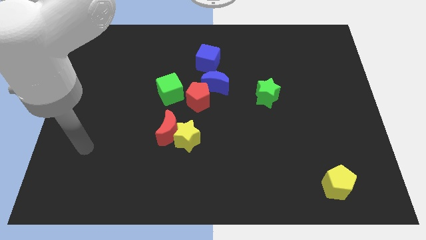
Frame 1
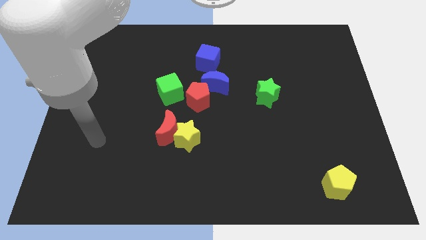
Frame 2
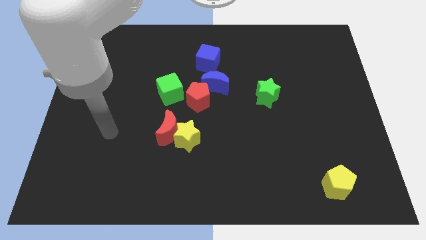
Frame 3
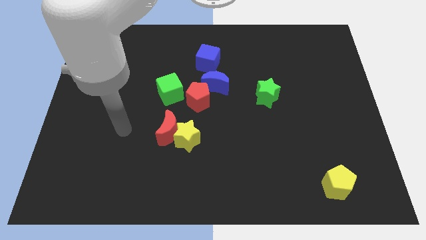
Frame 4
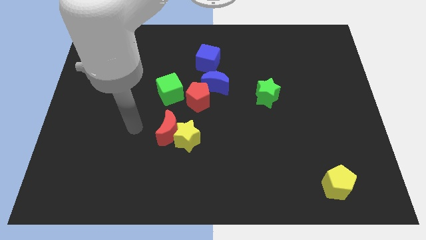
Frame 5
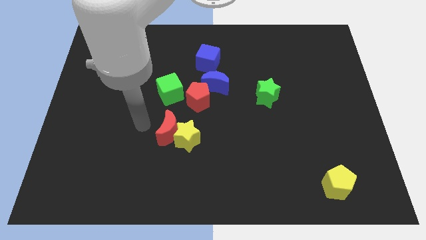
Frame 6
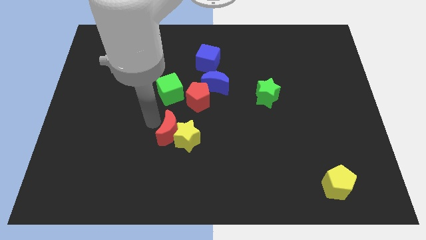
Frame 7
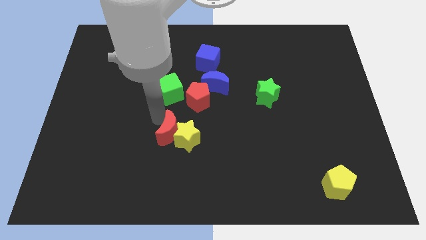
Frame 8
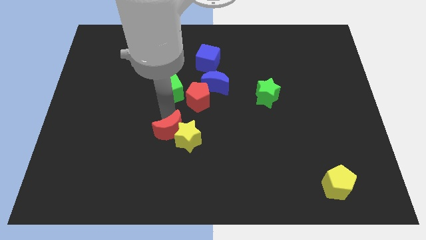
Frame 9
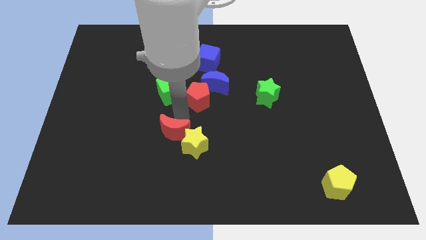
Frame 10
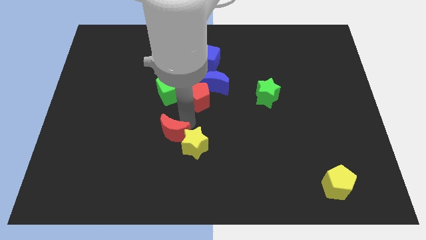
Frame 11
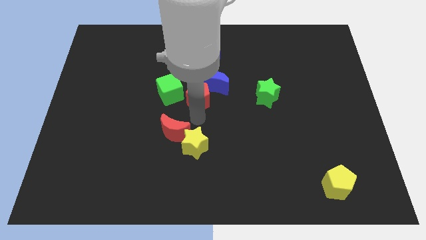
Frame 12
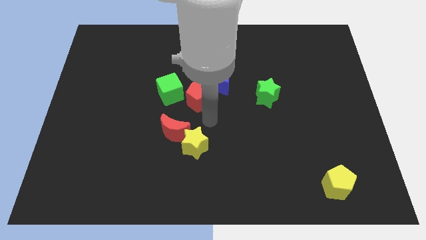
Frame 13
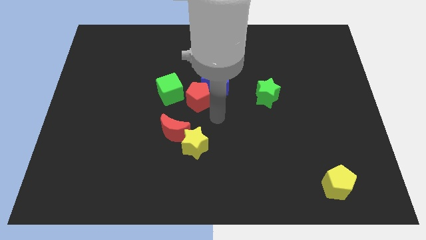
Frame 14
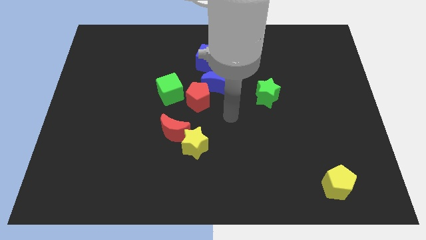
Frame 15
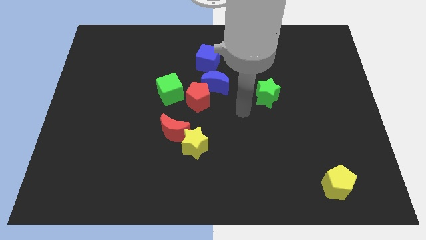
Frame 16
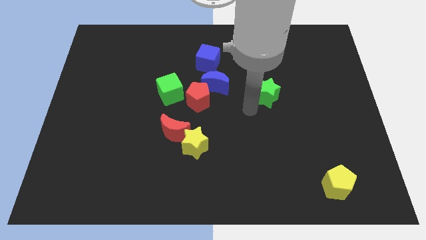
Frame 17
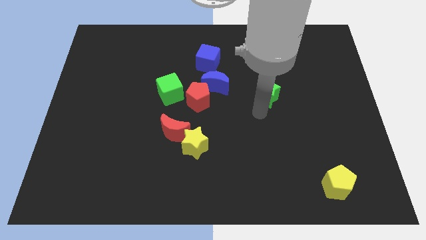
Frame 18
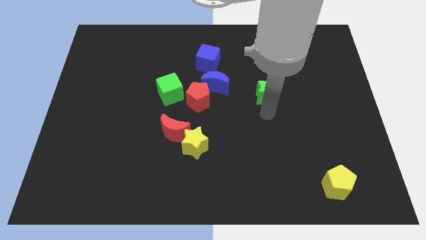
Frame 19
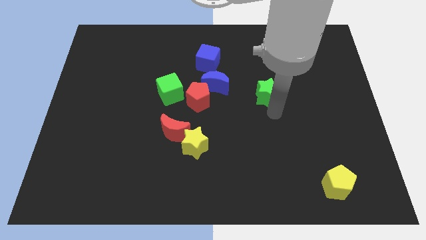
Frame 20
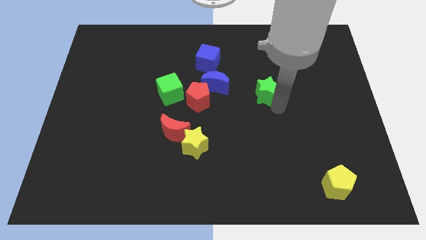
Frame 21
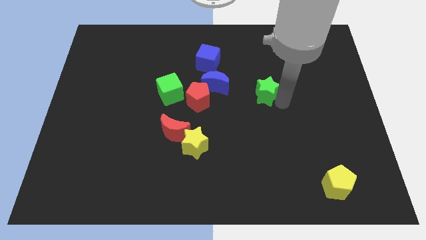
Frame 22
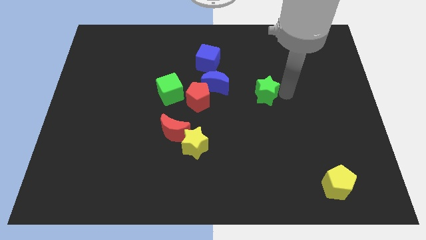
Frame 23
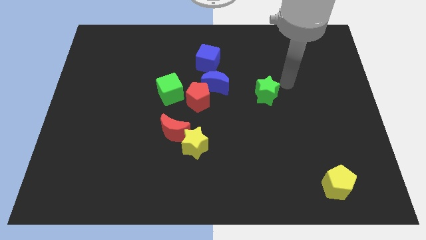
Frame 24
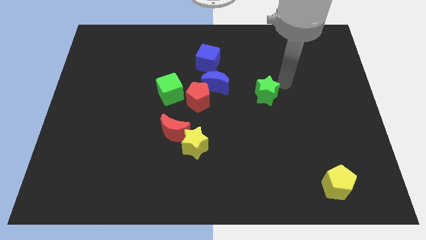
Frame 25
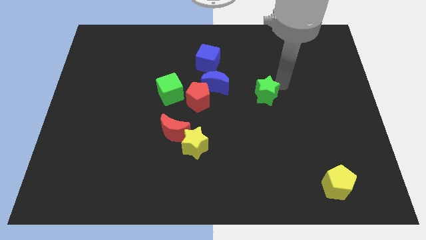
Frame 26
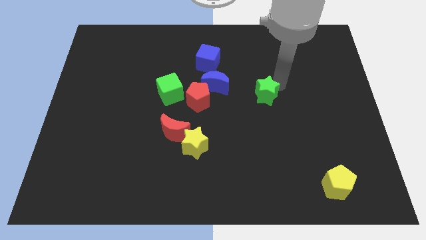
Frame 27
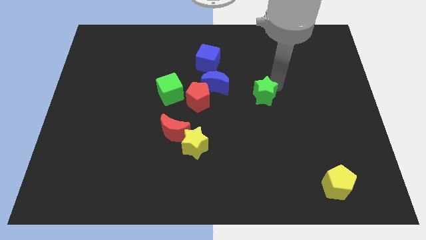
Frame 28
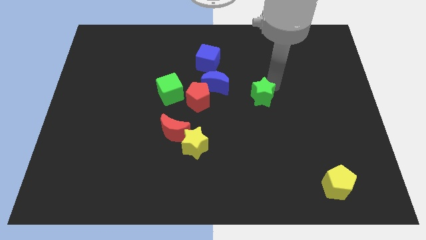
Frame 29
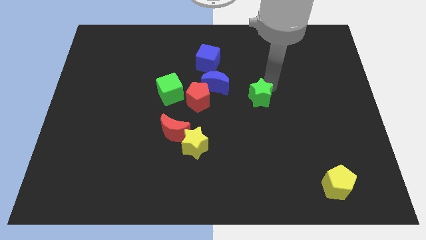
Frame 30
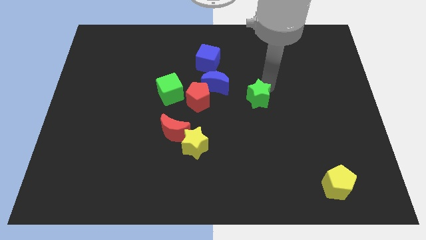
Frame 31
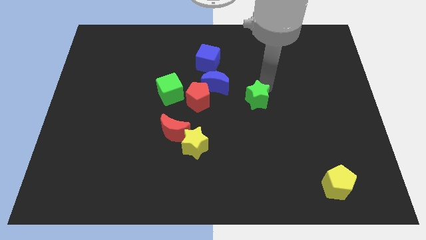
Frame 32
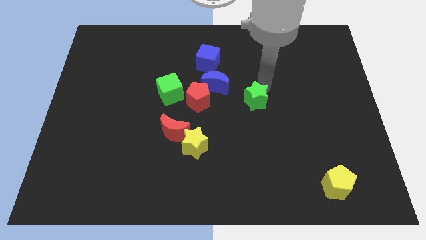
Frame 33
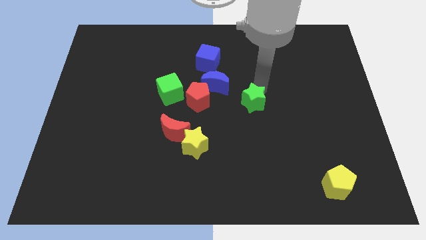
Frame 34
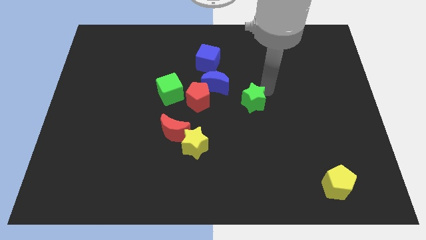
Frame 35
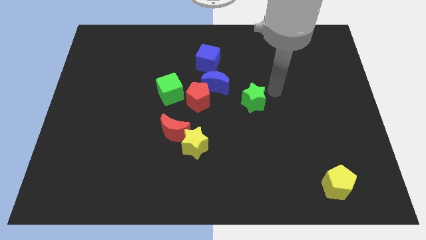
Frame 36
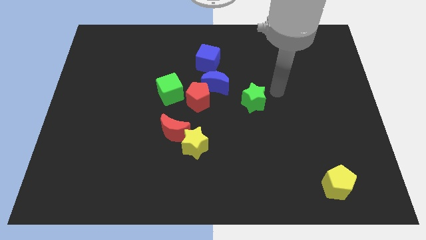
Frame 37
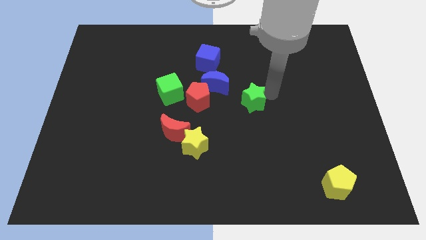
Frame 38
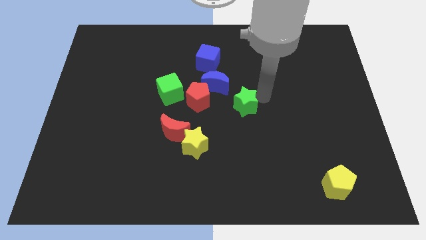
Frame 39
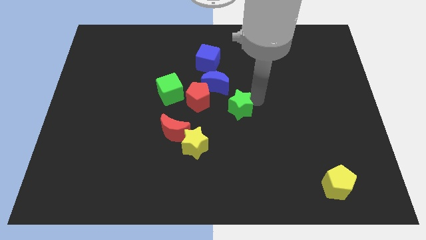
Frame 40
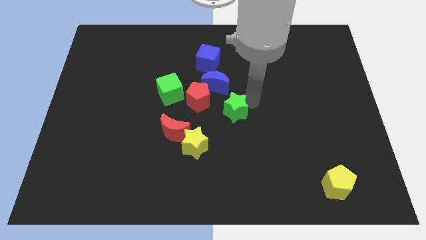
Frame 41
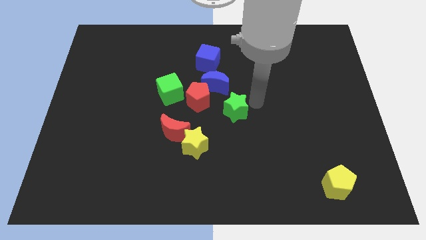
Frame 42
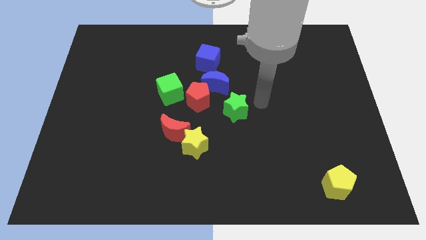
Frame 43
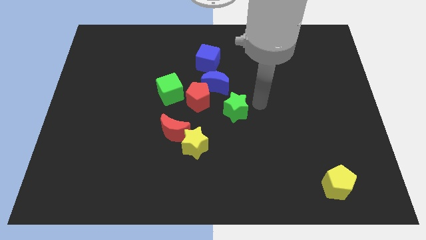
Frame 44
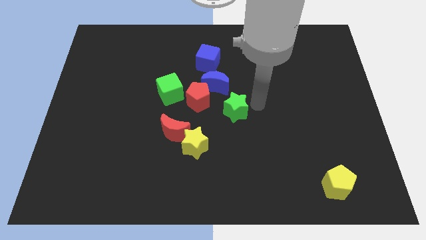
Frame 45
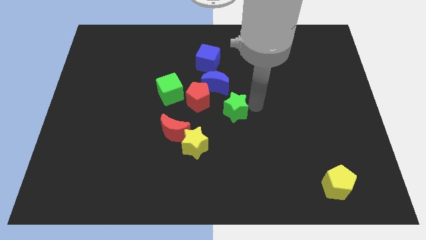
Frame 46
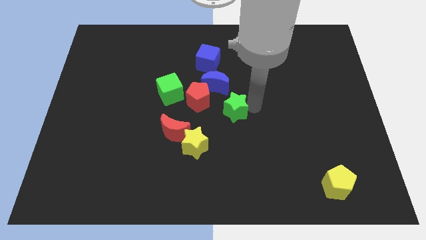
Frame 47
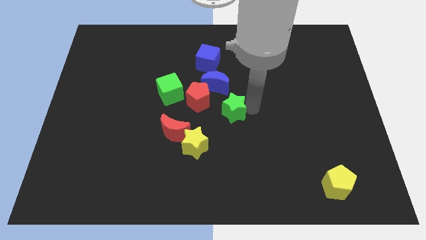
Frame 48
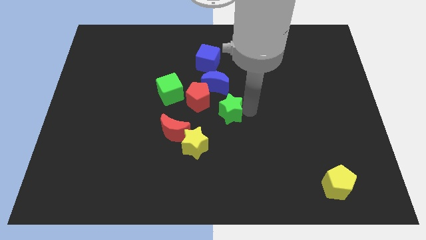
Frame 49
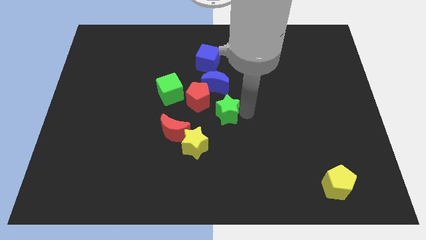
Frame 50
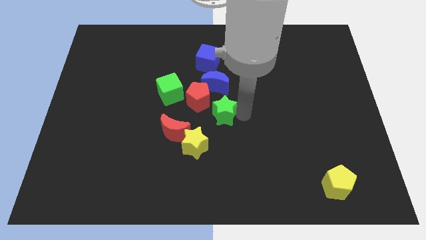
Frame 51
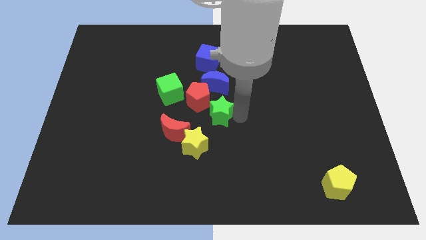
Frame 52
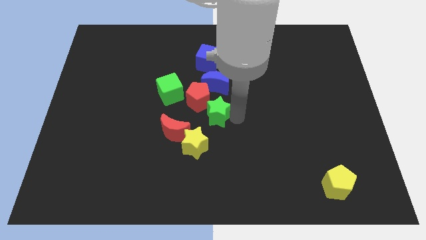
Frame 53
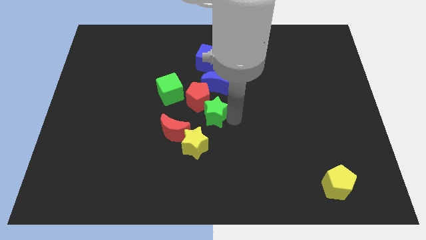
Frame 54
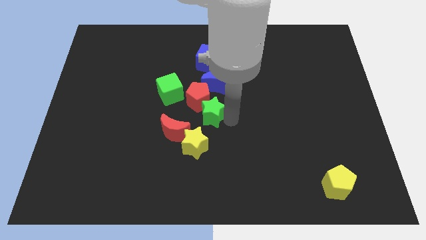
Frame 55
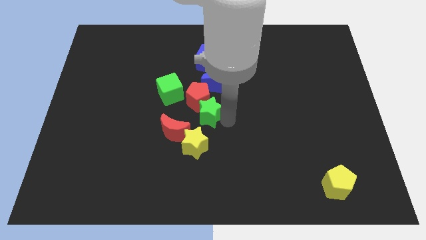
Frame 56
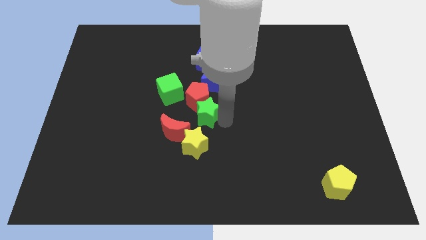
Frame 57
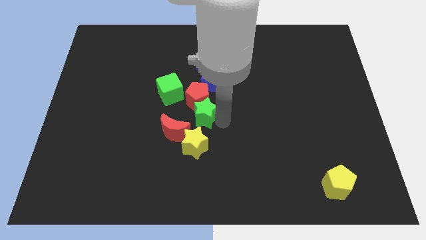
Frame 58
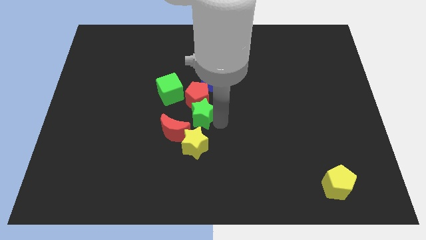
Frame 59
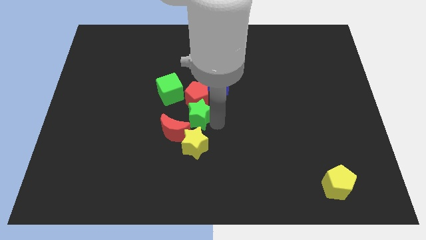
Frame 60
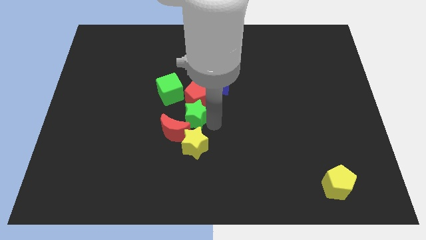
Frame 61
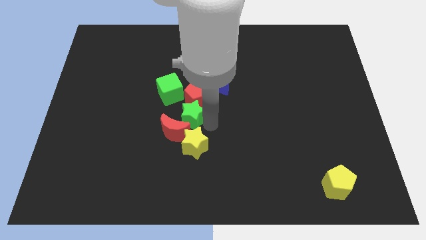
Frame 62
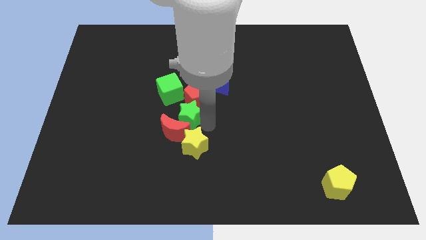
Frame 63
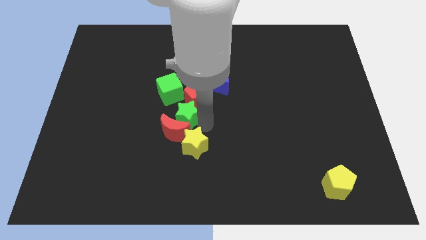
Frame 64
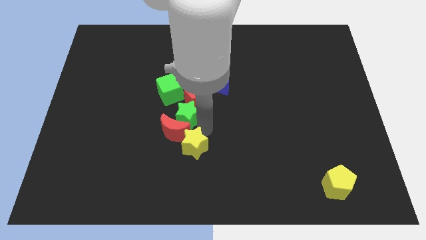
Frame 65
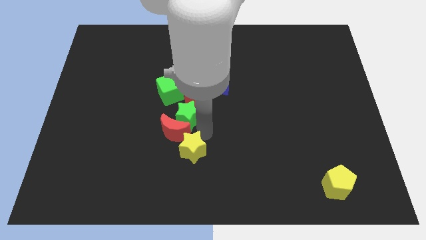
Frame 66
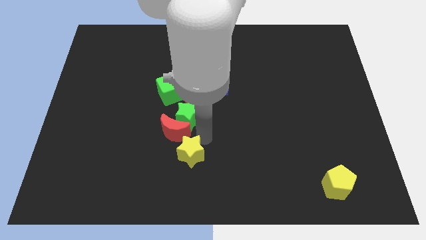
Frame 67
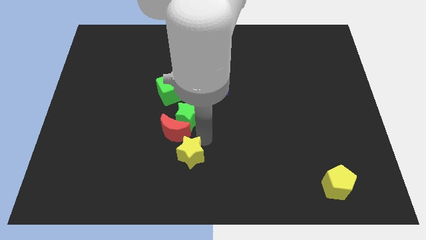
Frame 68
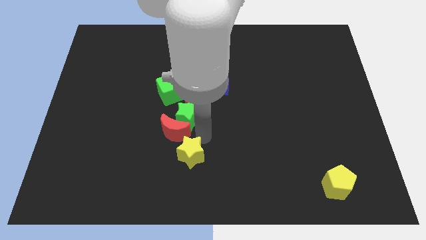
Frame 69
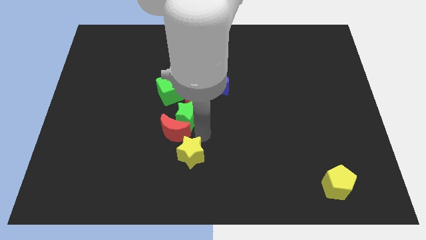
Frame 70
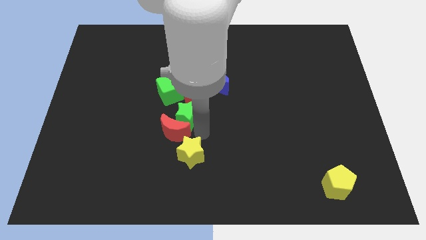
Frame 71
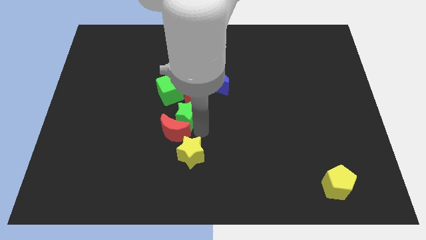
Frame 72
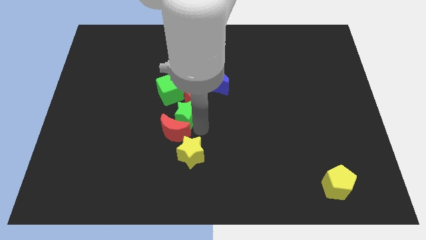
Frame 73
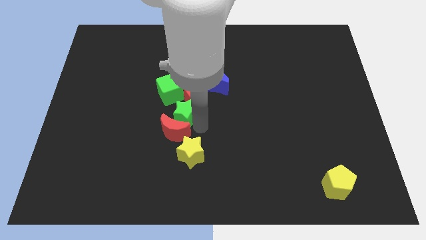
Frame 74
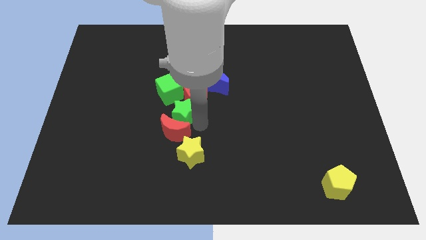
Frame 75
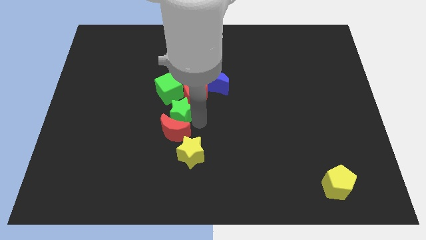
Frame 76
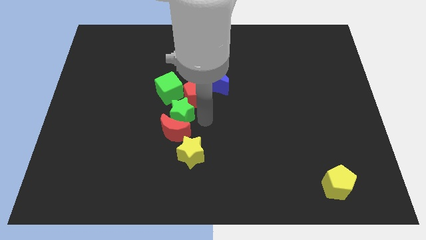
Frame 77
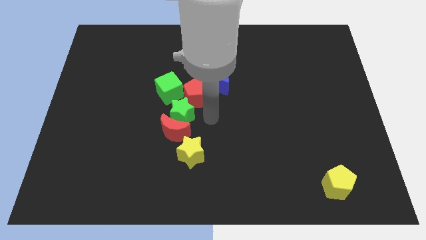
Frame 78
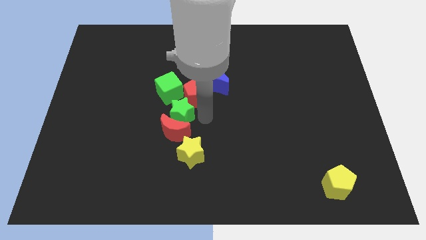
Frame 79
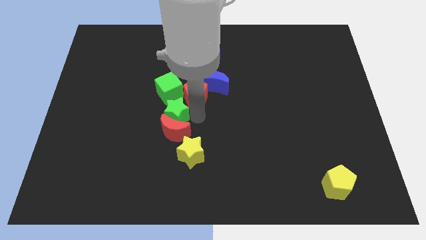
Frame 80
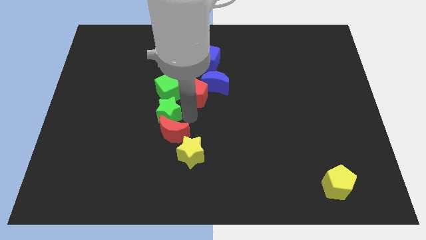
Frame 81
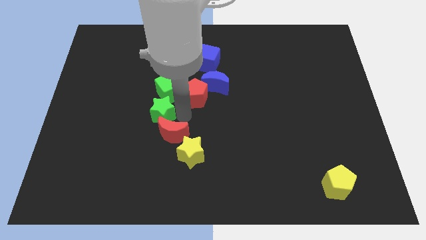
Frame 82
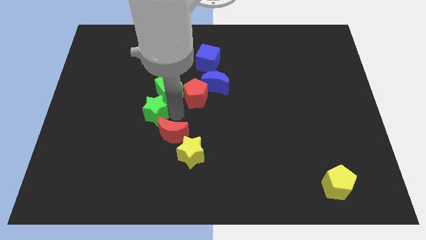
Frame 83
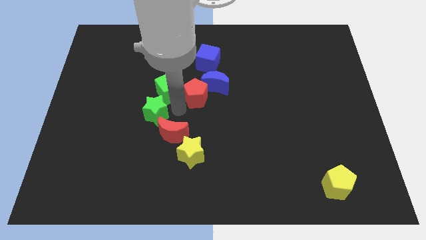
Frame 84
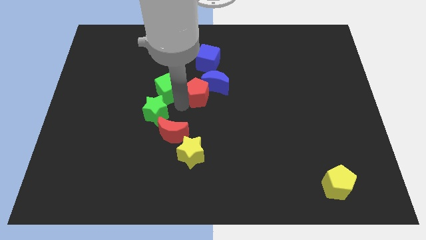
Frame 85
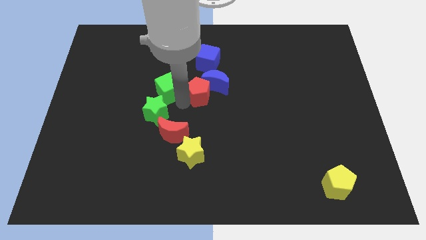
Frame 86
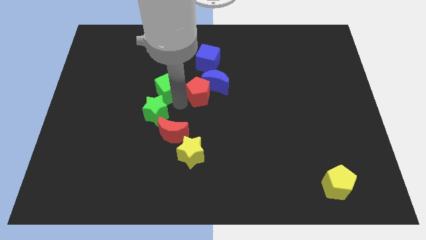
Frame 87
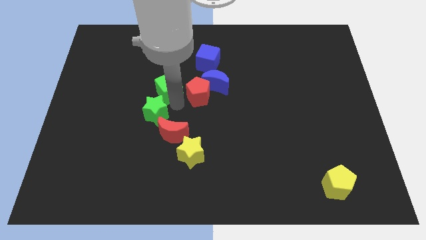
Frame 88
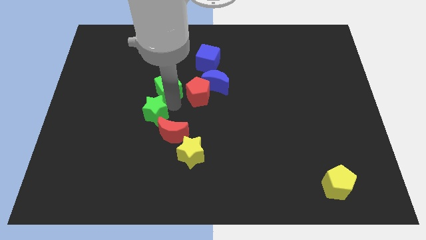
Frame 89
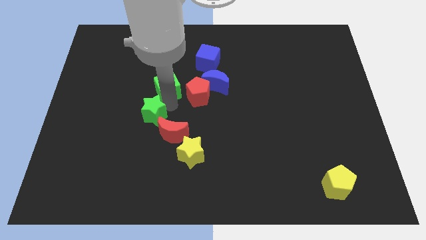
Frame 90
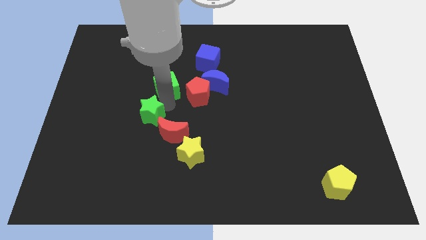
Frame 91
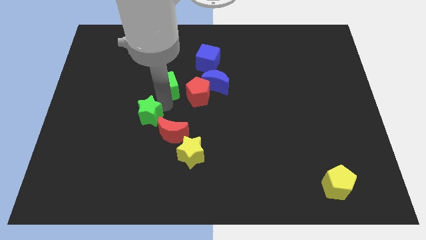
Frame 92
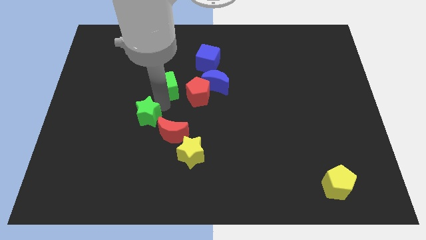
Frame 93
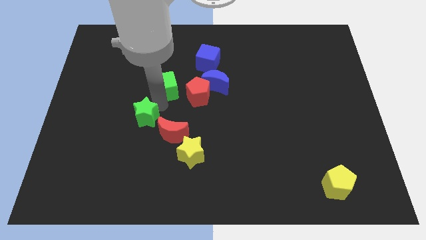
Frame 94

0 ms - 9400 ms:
move the green star to the left side of the red moon
